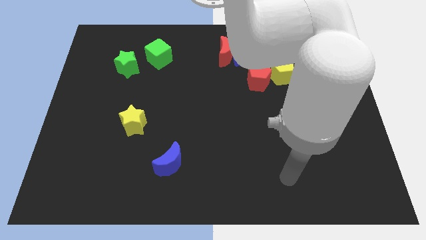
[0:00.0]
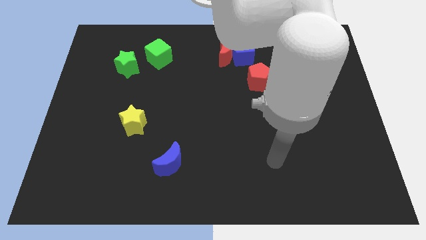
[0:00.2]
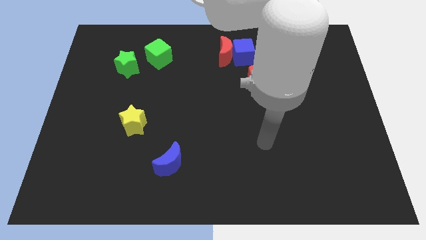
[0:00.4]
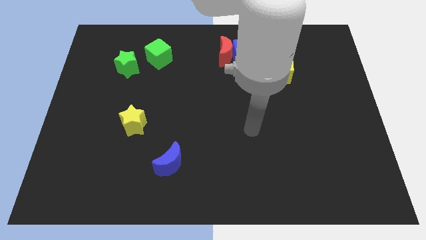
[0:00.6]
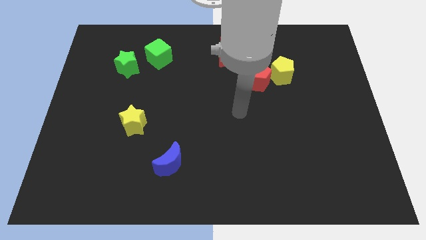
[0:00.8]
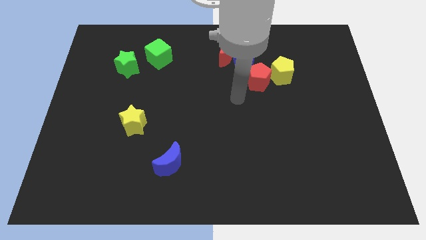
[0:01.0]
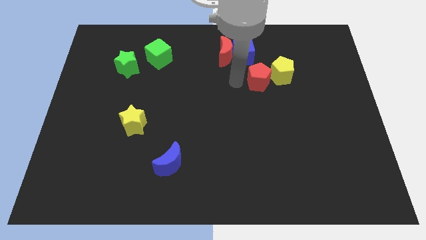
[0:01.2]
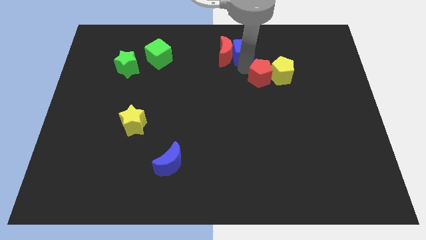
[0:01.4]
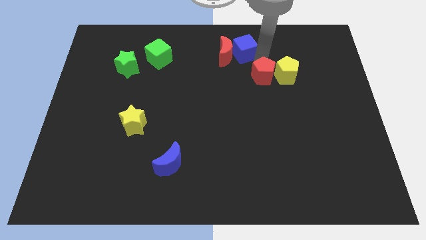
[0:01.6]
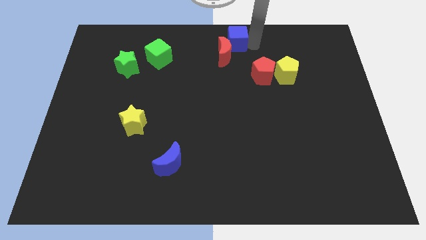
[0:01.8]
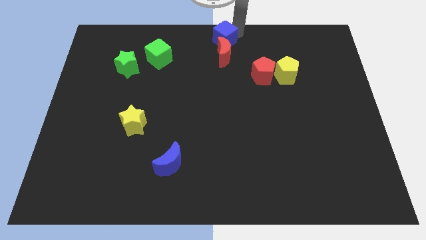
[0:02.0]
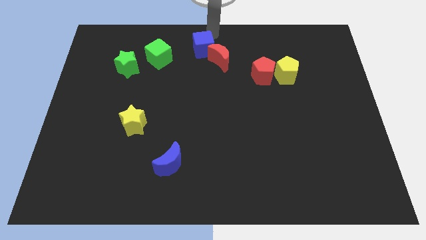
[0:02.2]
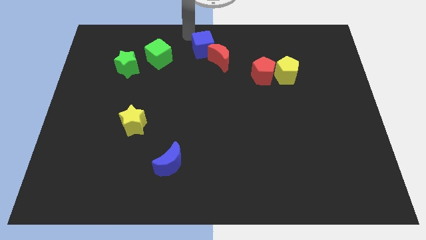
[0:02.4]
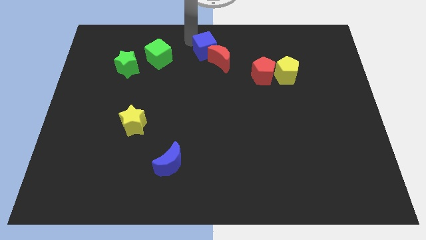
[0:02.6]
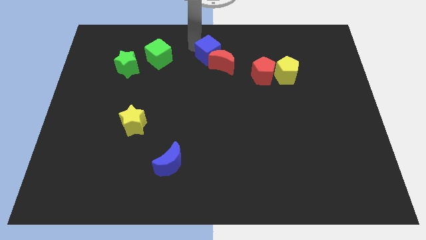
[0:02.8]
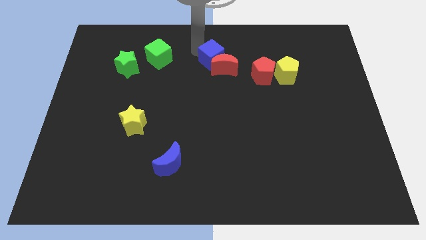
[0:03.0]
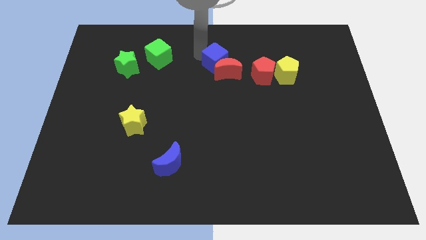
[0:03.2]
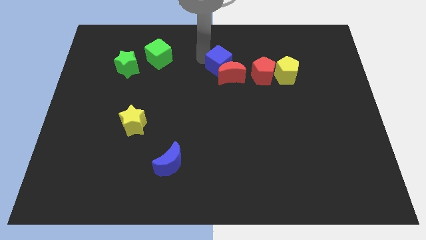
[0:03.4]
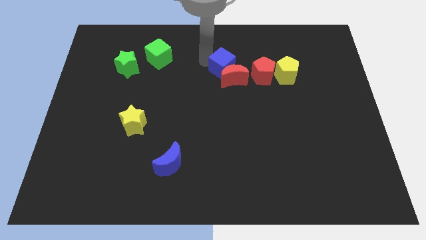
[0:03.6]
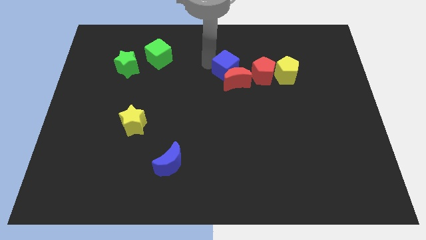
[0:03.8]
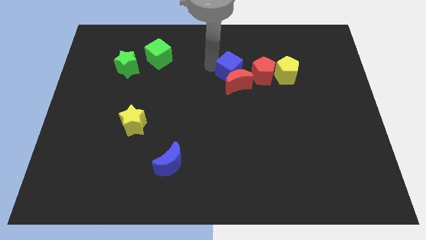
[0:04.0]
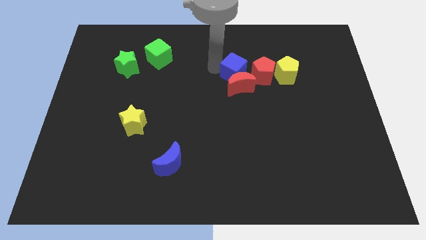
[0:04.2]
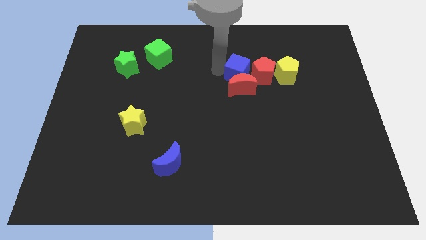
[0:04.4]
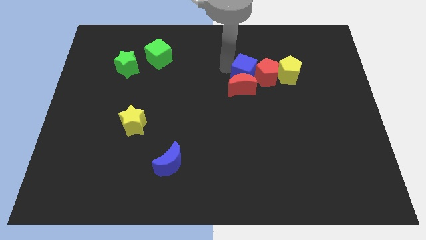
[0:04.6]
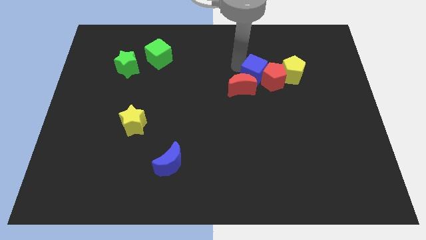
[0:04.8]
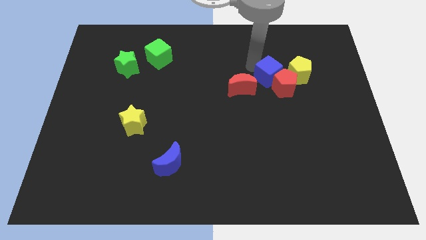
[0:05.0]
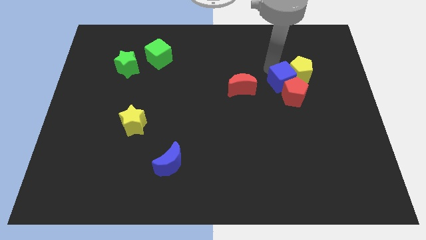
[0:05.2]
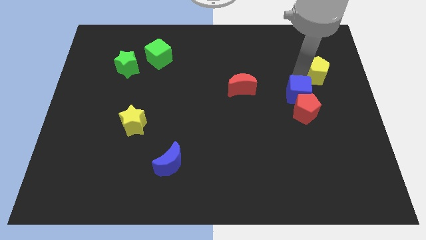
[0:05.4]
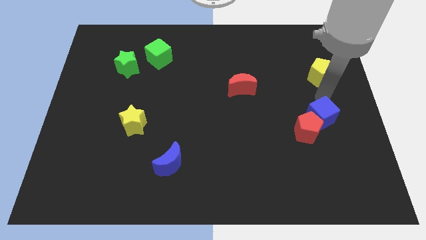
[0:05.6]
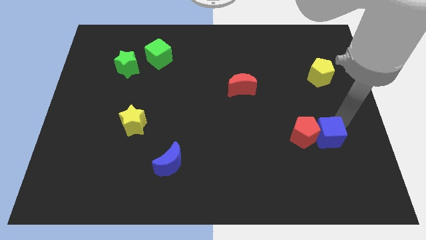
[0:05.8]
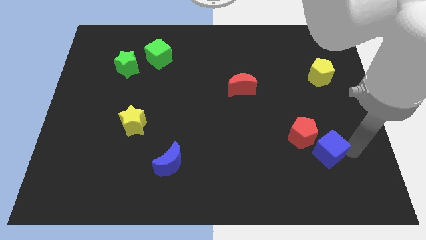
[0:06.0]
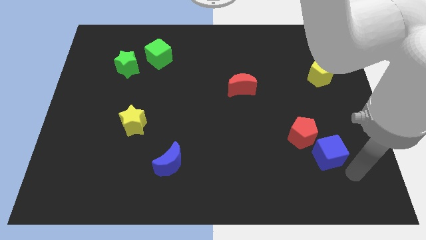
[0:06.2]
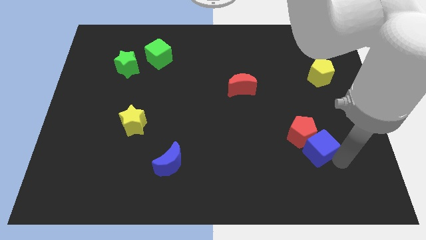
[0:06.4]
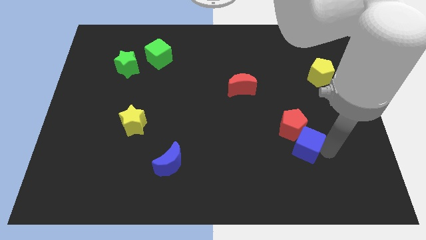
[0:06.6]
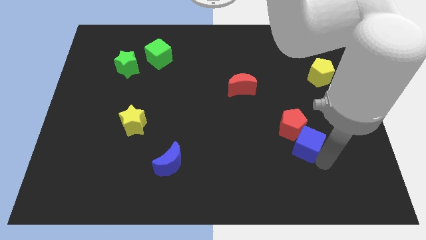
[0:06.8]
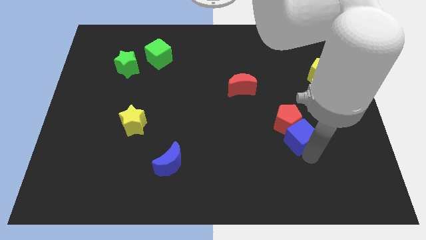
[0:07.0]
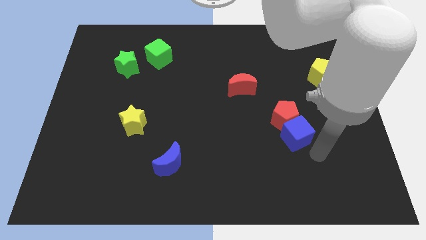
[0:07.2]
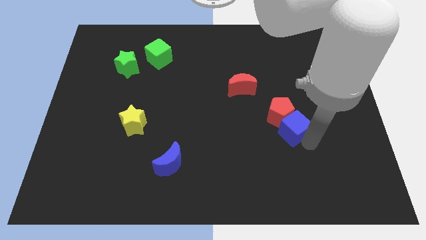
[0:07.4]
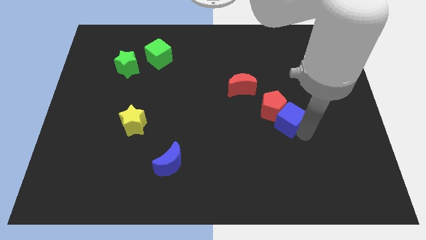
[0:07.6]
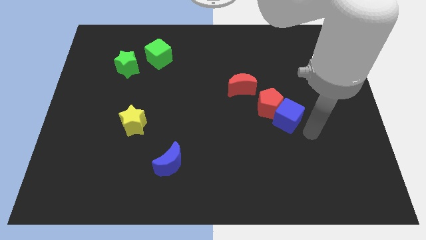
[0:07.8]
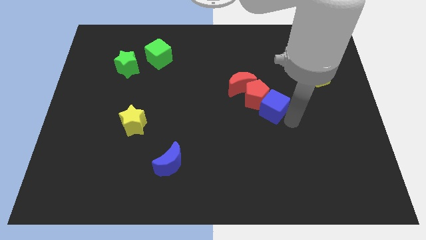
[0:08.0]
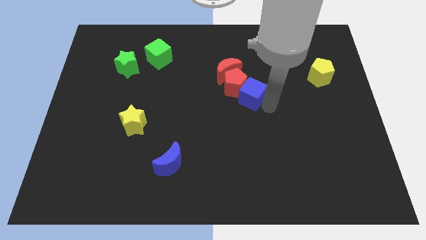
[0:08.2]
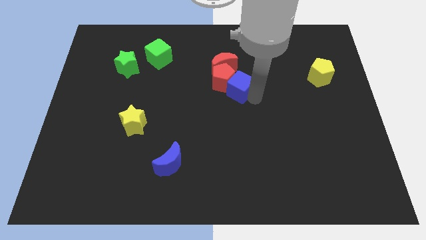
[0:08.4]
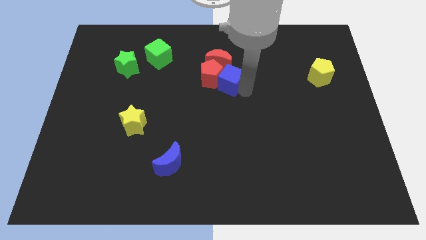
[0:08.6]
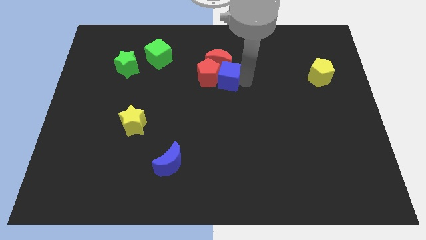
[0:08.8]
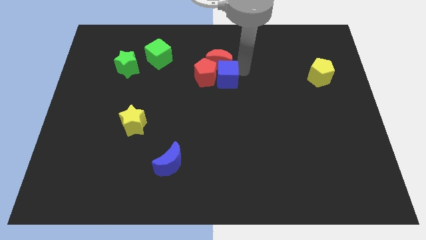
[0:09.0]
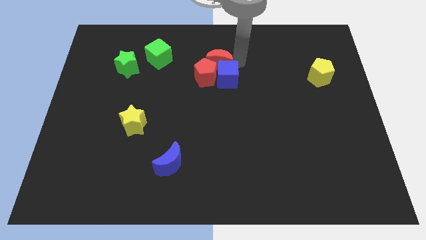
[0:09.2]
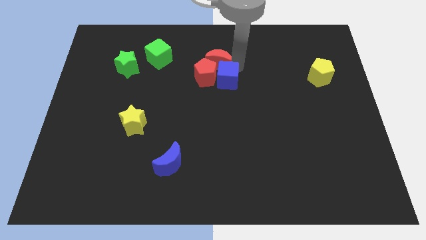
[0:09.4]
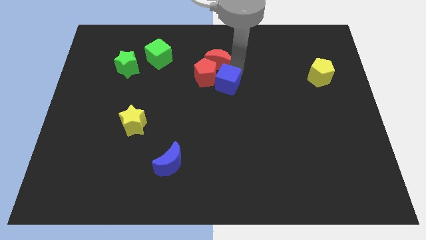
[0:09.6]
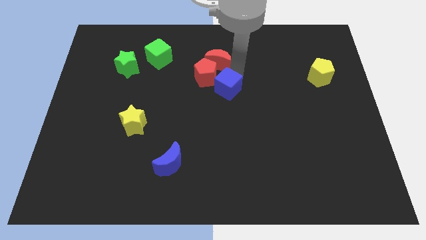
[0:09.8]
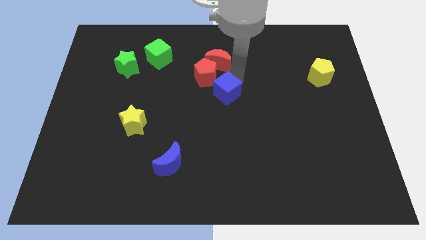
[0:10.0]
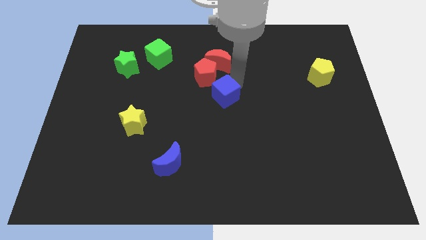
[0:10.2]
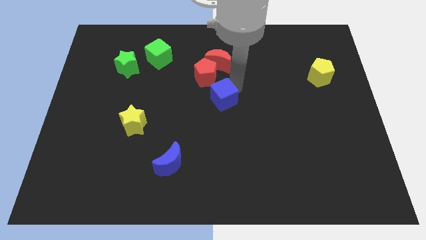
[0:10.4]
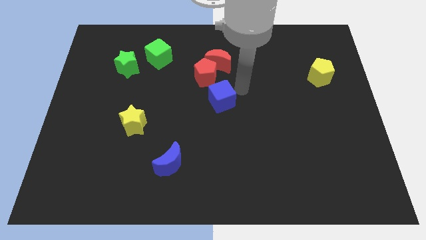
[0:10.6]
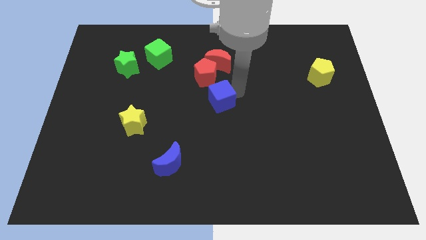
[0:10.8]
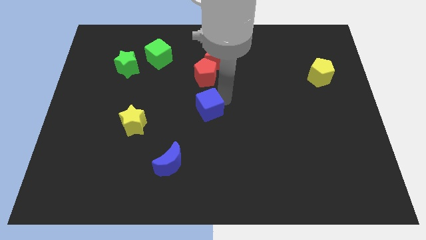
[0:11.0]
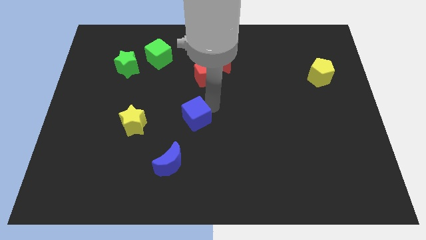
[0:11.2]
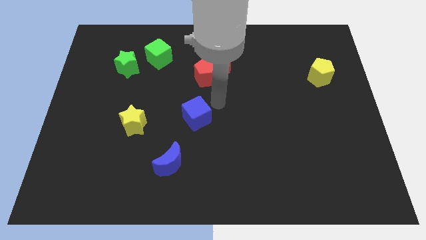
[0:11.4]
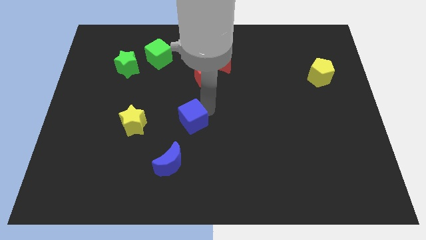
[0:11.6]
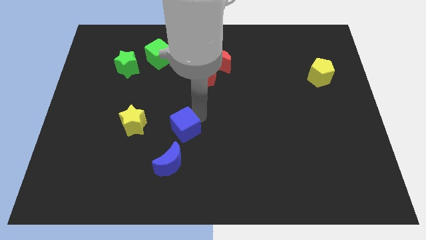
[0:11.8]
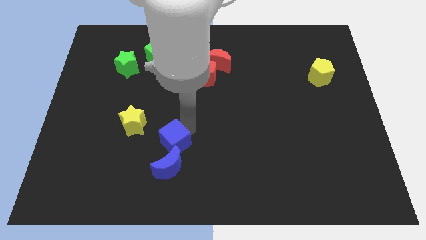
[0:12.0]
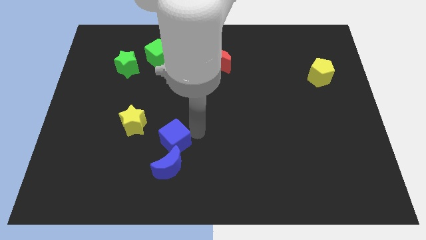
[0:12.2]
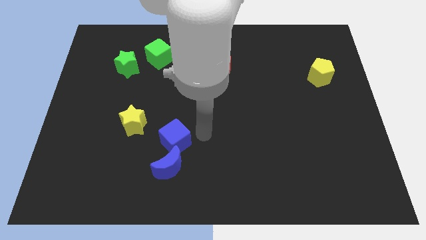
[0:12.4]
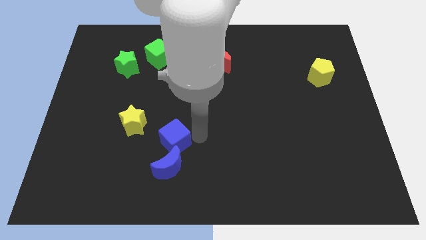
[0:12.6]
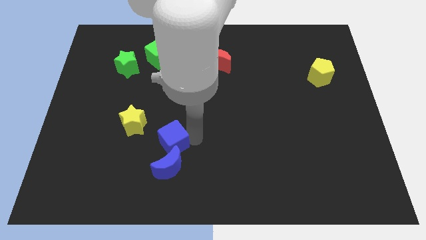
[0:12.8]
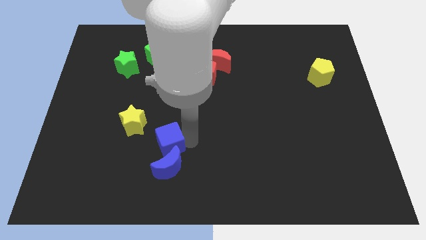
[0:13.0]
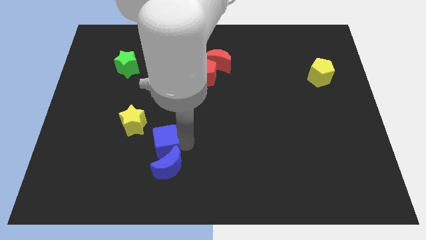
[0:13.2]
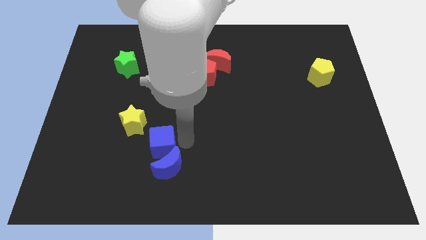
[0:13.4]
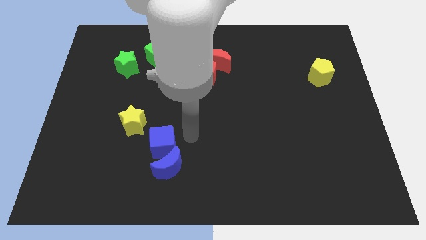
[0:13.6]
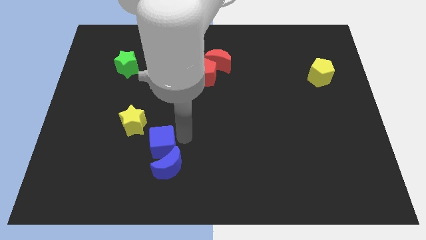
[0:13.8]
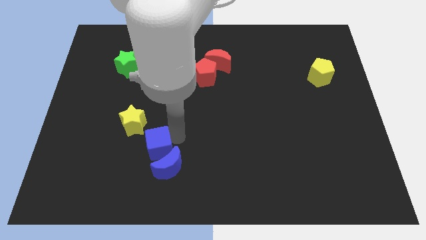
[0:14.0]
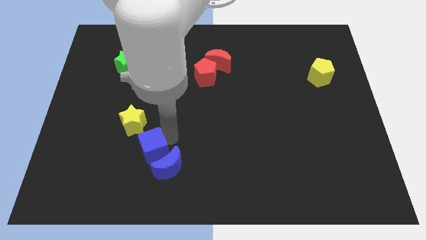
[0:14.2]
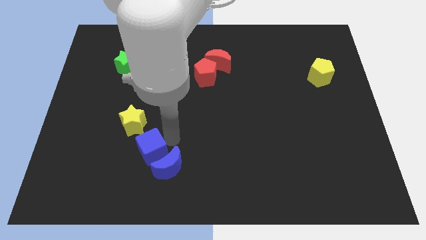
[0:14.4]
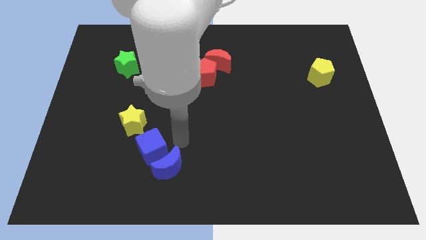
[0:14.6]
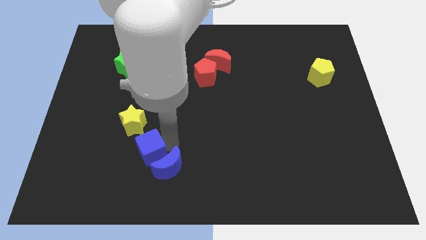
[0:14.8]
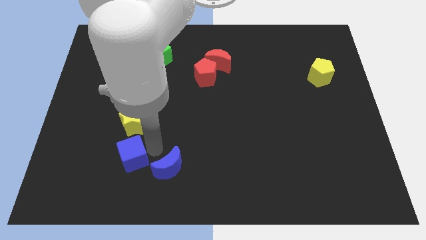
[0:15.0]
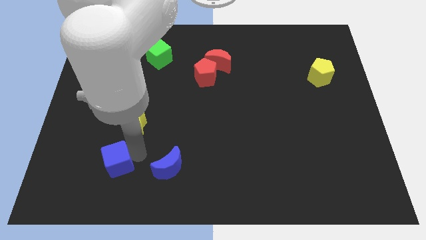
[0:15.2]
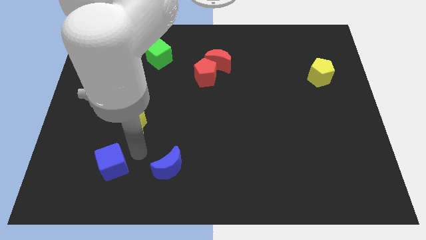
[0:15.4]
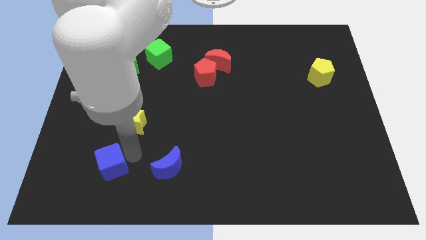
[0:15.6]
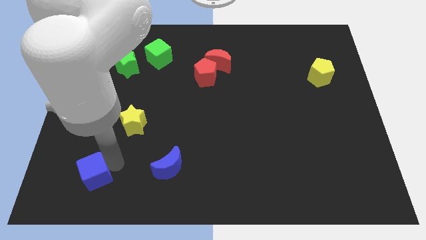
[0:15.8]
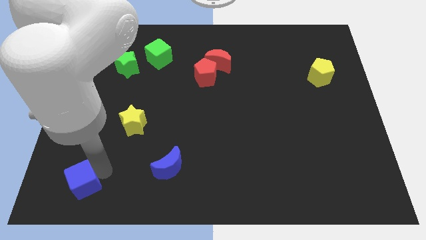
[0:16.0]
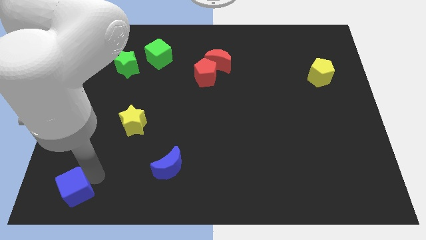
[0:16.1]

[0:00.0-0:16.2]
put the blue cube to the bottom left
